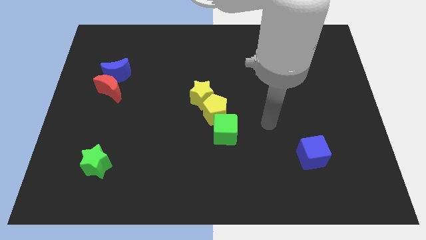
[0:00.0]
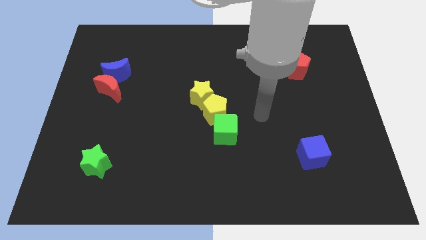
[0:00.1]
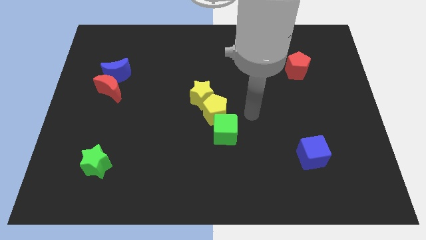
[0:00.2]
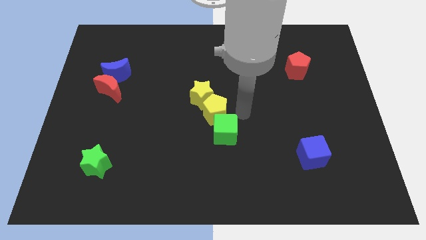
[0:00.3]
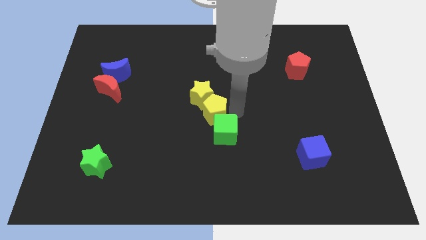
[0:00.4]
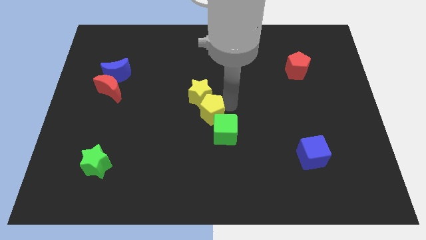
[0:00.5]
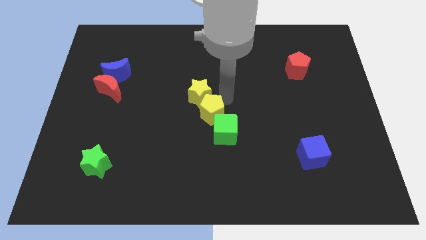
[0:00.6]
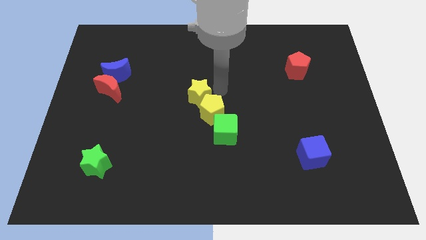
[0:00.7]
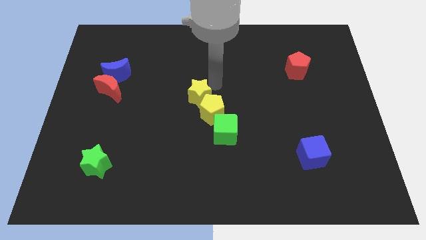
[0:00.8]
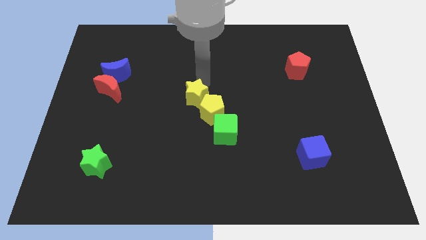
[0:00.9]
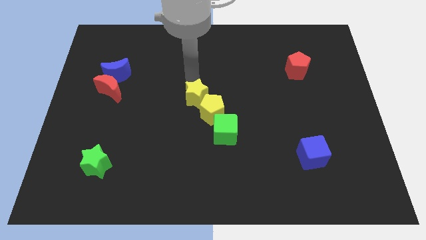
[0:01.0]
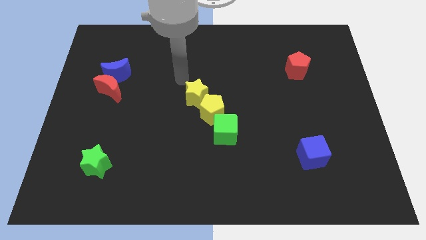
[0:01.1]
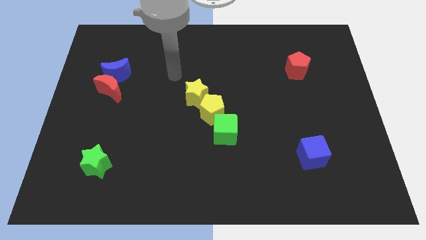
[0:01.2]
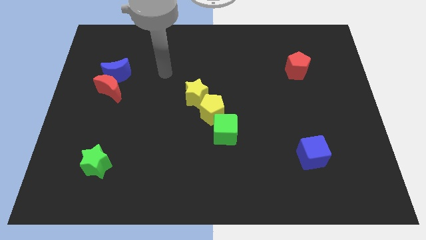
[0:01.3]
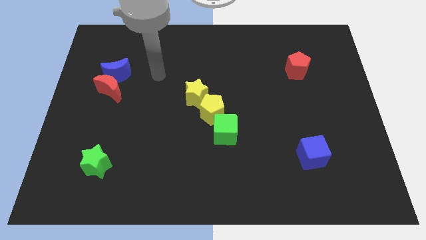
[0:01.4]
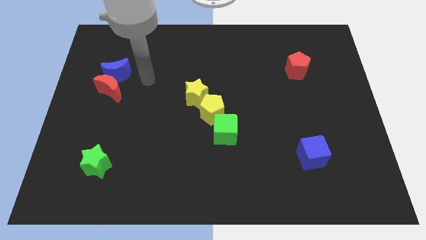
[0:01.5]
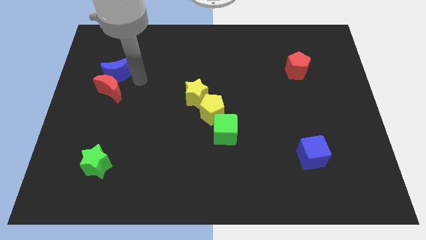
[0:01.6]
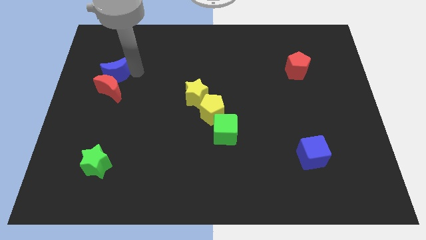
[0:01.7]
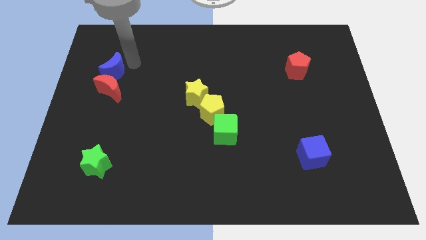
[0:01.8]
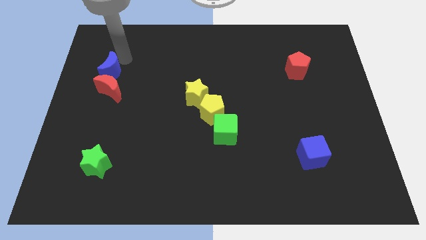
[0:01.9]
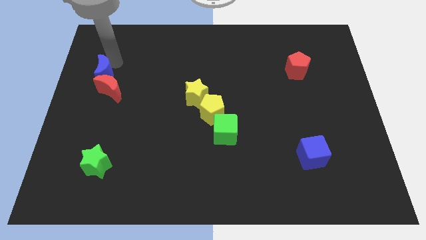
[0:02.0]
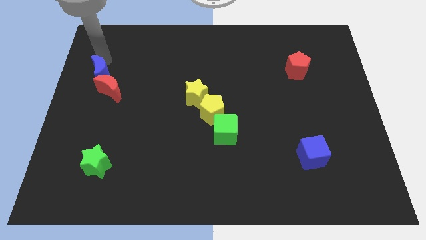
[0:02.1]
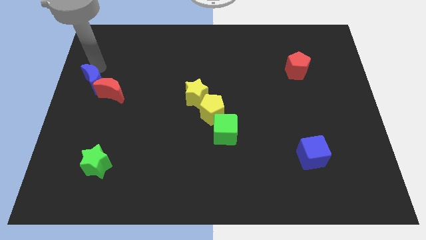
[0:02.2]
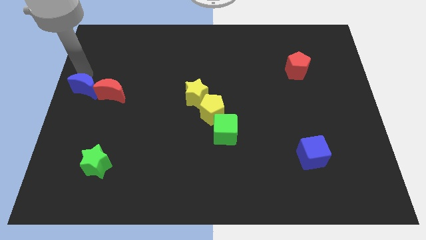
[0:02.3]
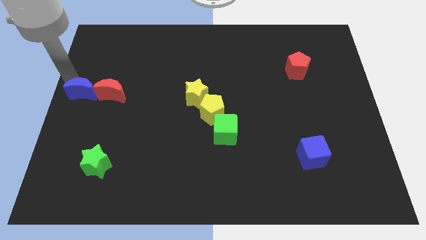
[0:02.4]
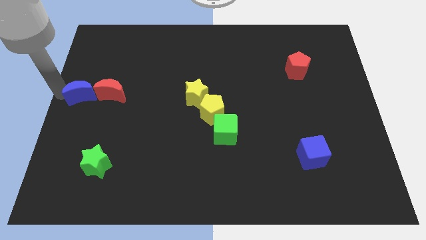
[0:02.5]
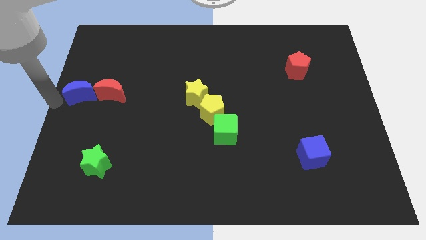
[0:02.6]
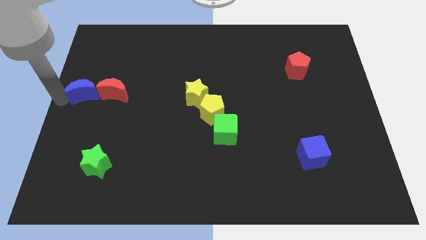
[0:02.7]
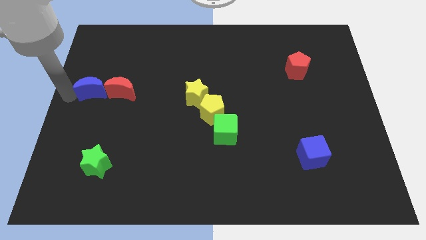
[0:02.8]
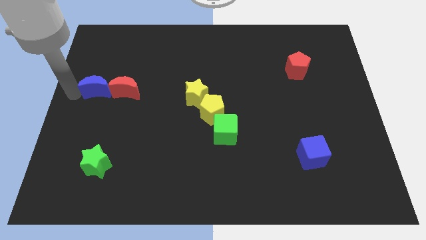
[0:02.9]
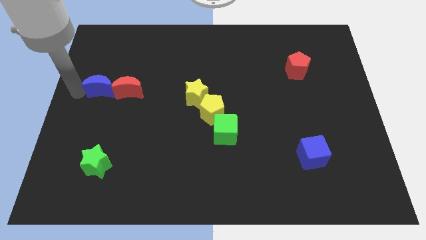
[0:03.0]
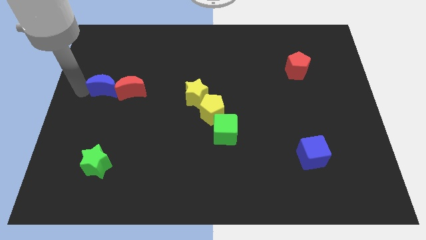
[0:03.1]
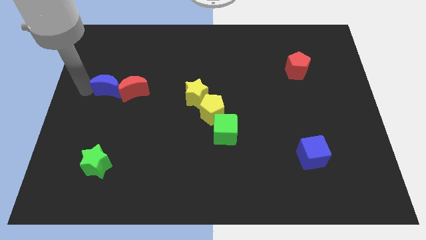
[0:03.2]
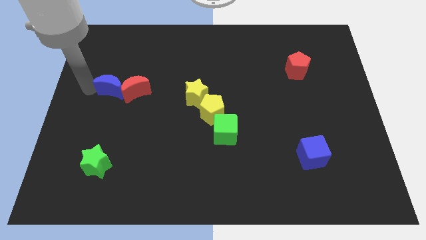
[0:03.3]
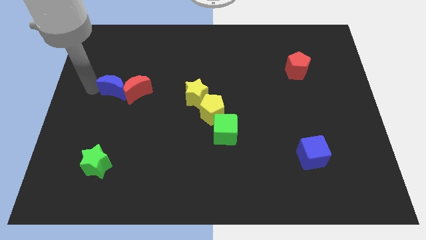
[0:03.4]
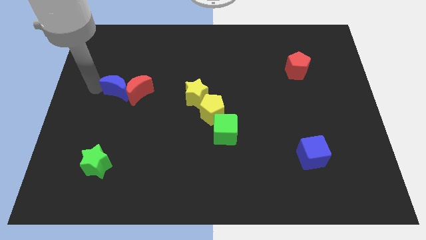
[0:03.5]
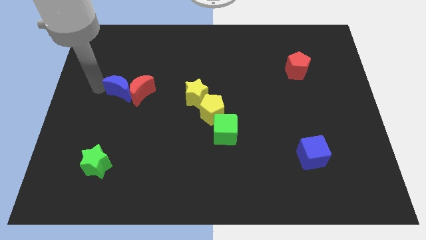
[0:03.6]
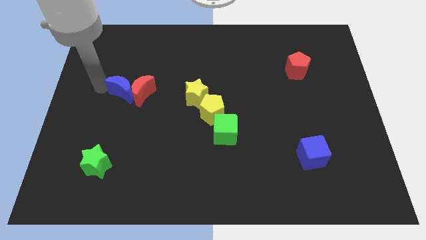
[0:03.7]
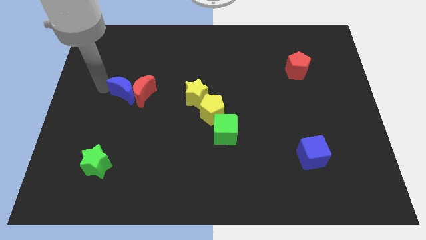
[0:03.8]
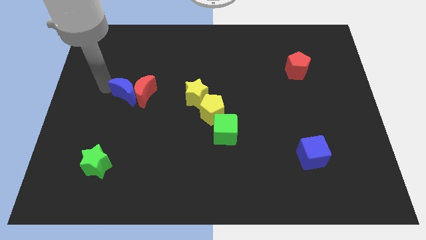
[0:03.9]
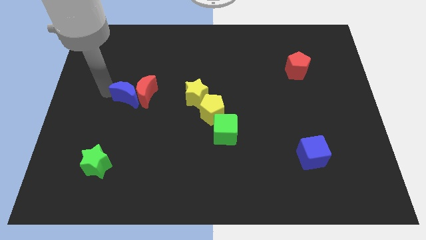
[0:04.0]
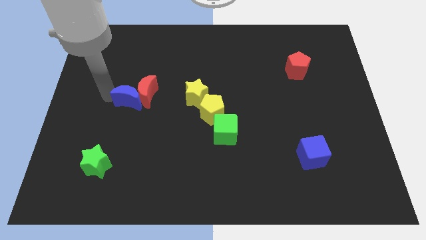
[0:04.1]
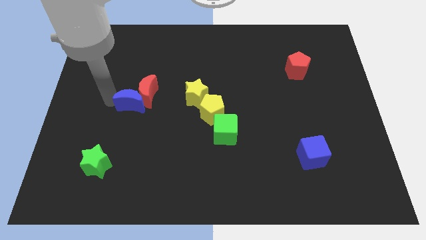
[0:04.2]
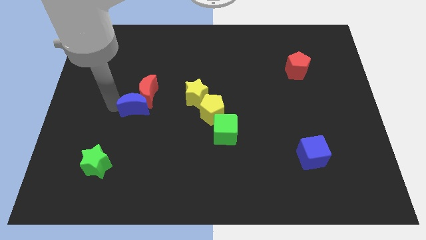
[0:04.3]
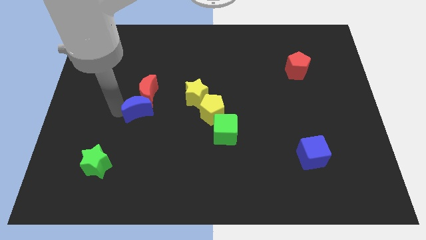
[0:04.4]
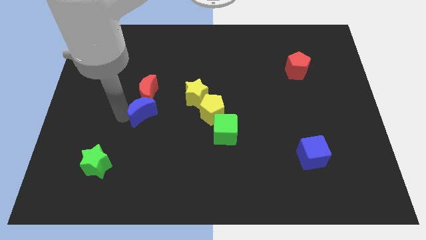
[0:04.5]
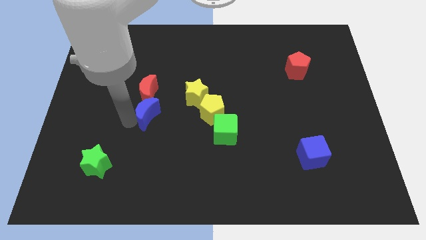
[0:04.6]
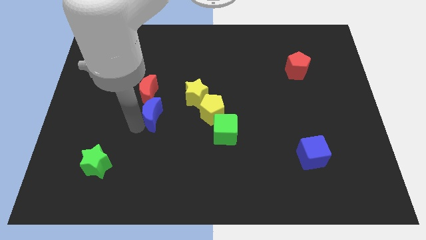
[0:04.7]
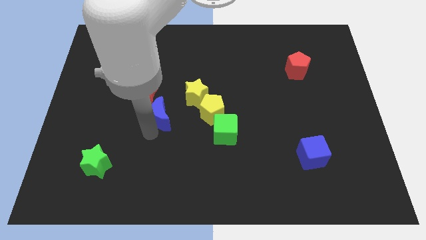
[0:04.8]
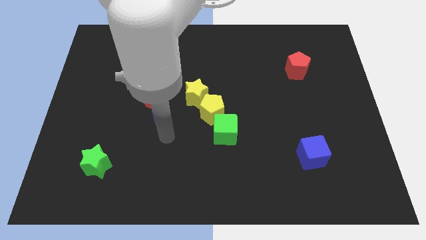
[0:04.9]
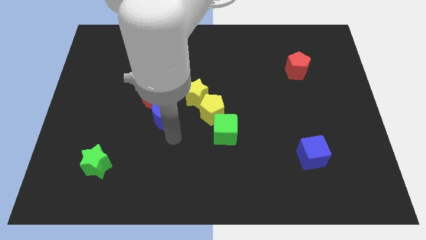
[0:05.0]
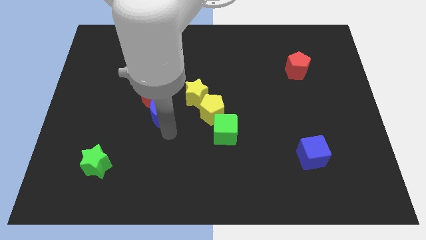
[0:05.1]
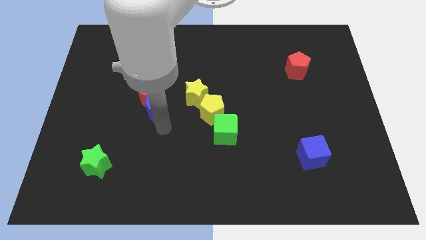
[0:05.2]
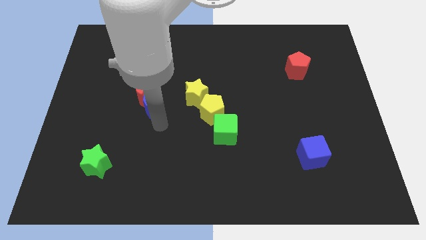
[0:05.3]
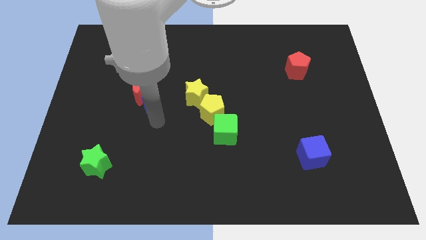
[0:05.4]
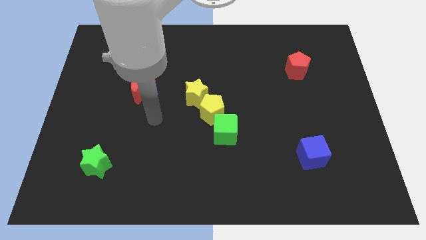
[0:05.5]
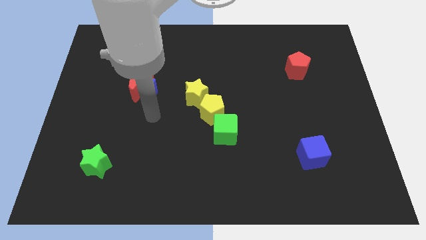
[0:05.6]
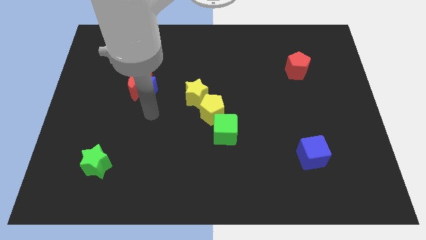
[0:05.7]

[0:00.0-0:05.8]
move the blue moon right a little

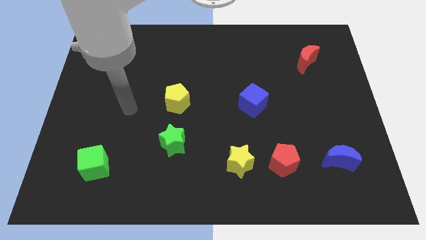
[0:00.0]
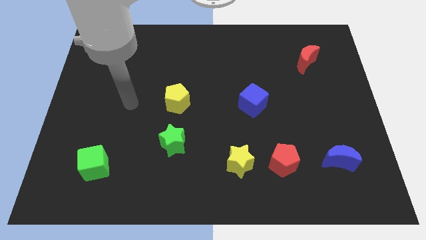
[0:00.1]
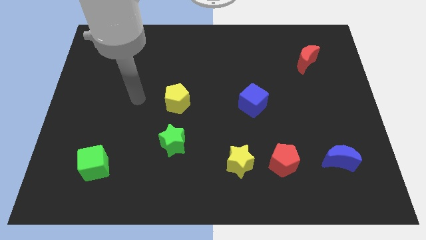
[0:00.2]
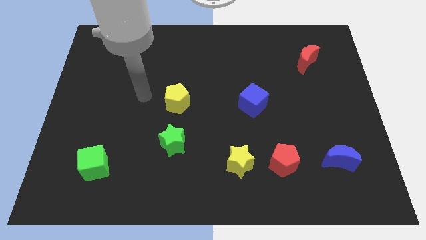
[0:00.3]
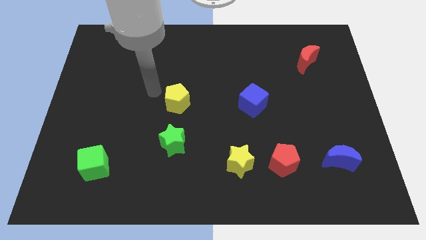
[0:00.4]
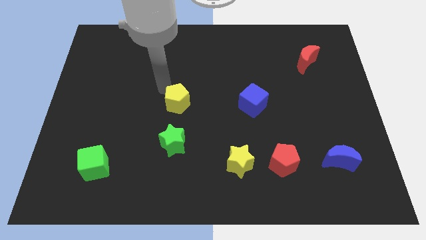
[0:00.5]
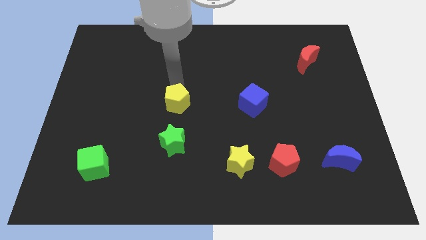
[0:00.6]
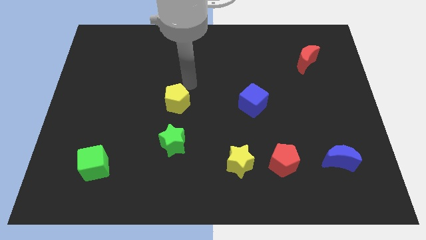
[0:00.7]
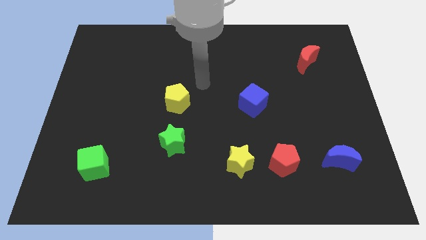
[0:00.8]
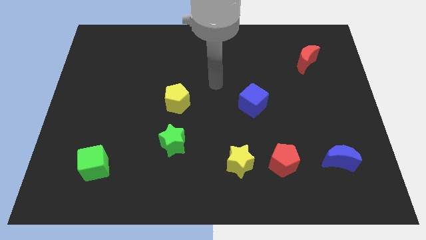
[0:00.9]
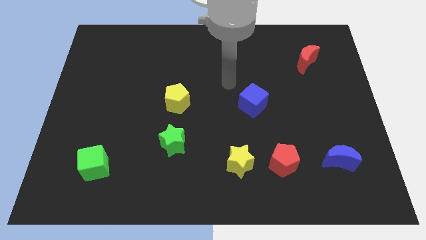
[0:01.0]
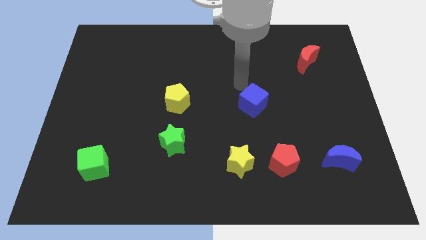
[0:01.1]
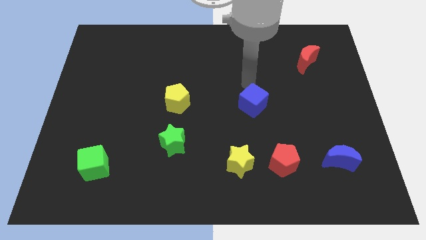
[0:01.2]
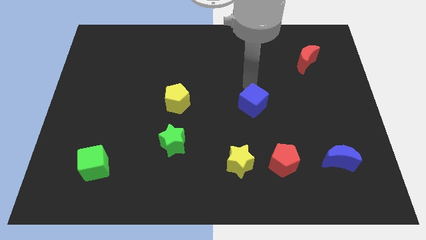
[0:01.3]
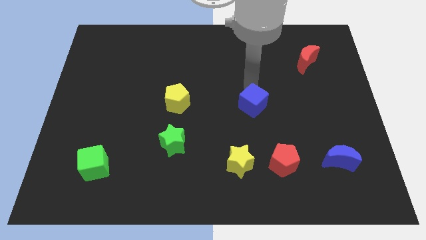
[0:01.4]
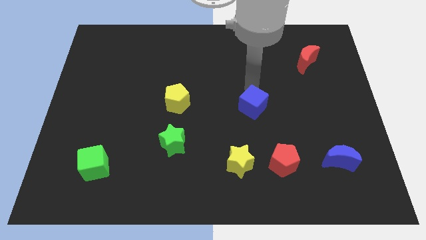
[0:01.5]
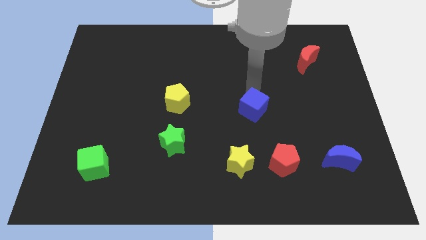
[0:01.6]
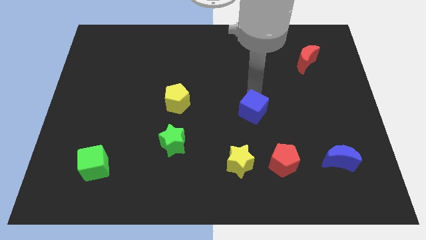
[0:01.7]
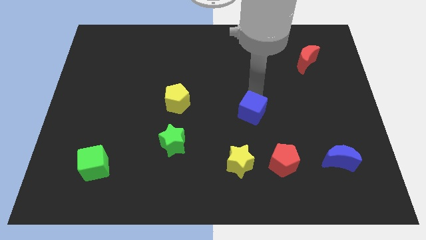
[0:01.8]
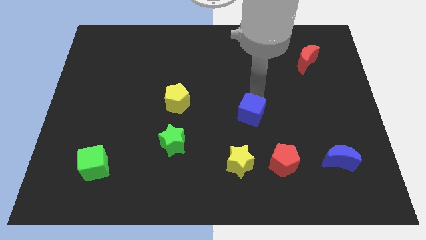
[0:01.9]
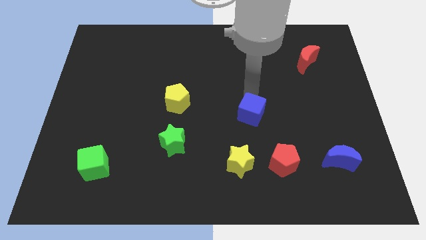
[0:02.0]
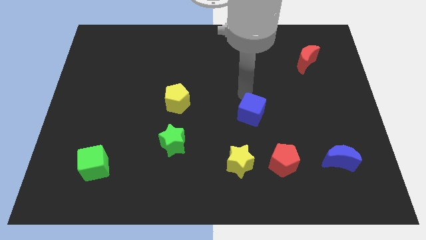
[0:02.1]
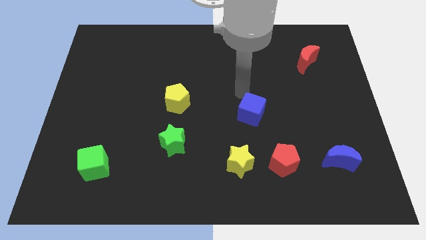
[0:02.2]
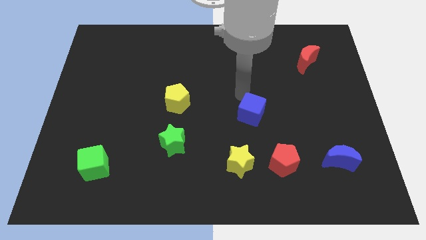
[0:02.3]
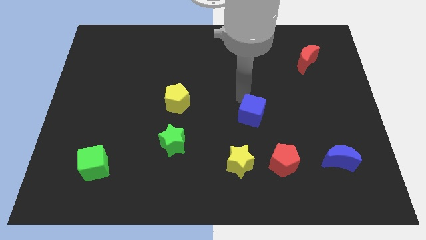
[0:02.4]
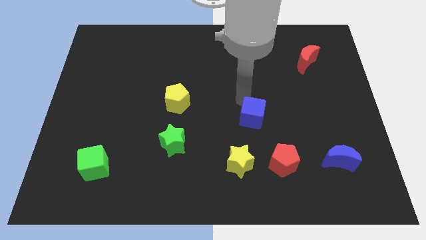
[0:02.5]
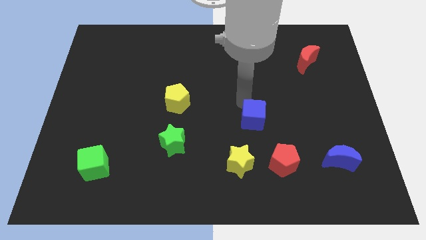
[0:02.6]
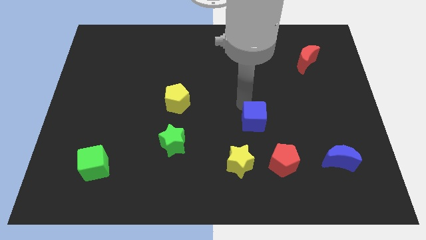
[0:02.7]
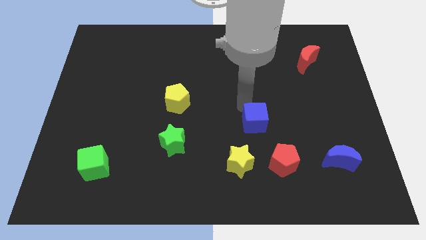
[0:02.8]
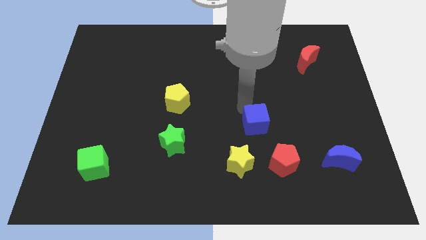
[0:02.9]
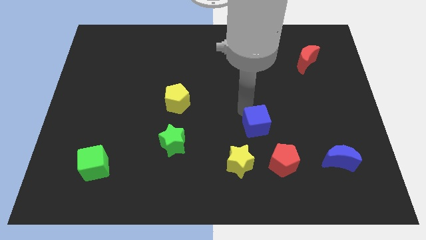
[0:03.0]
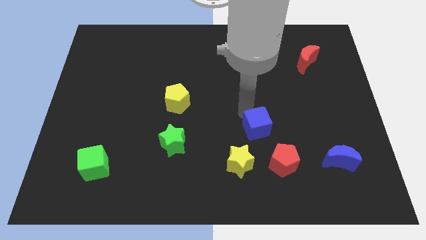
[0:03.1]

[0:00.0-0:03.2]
slightly move the blue cube downwards
